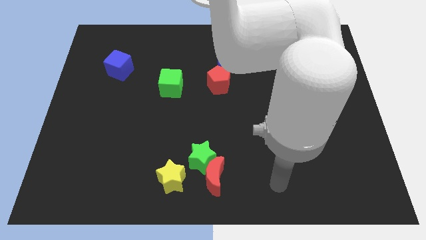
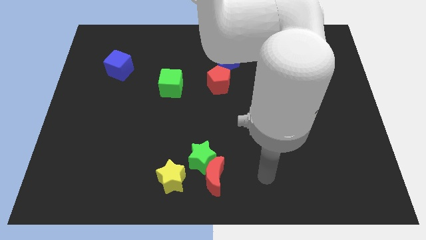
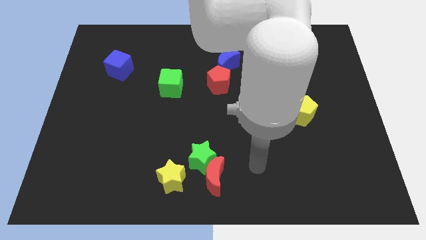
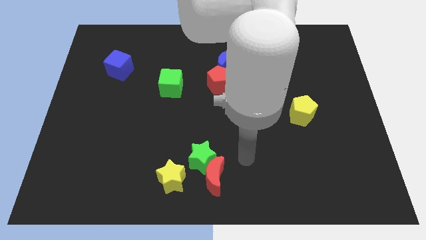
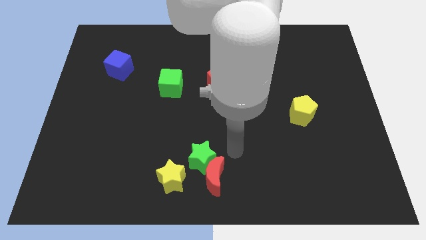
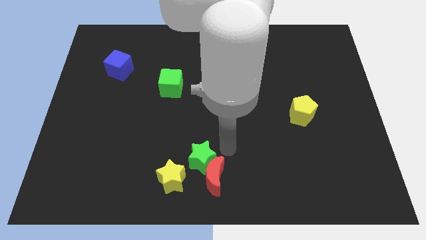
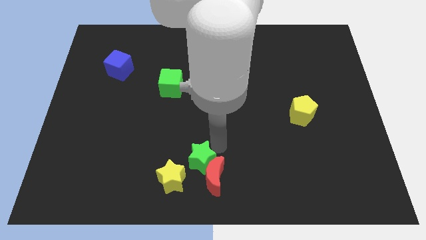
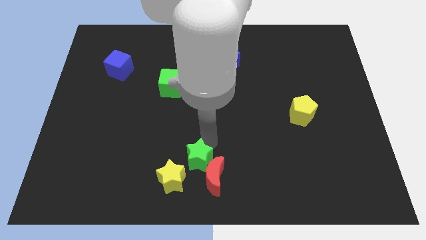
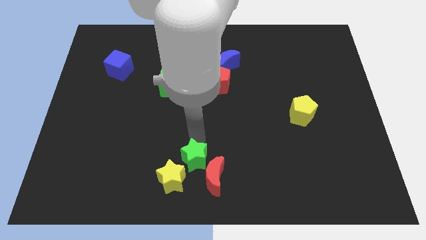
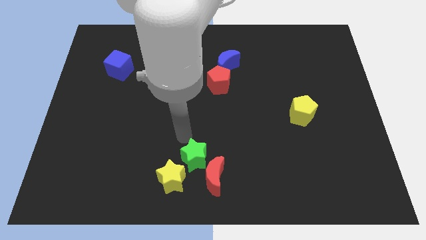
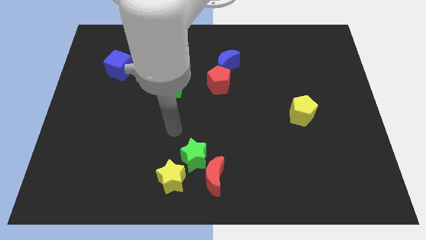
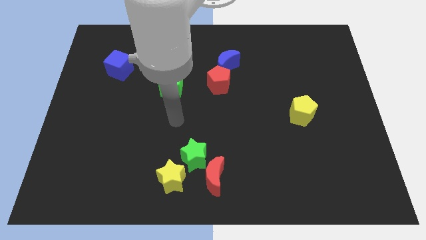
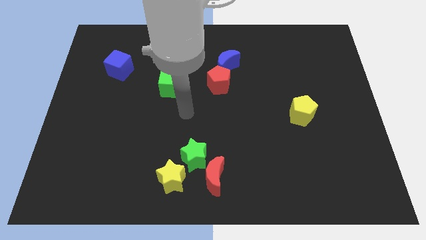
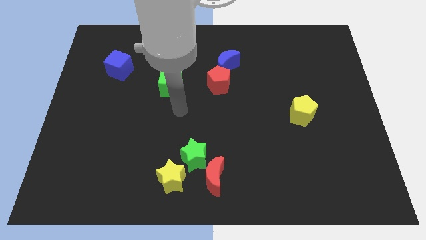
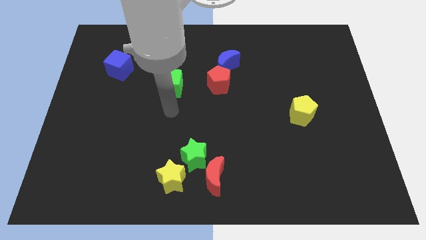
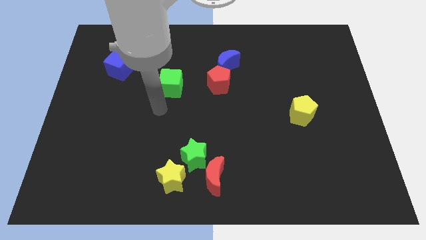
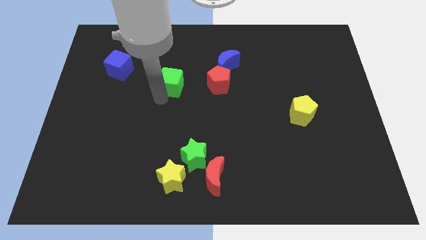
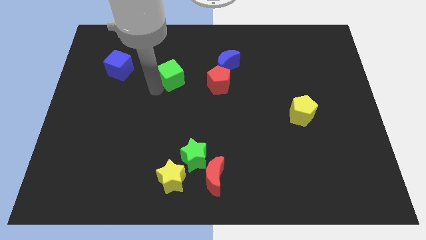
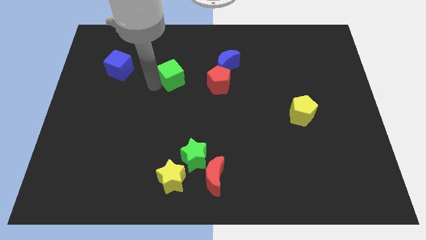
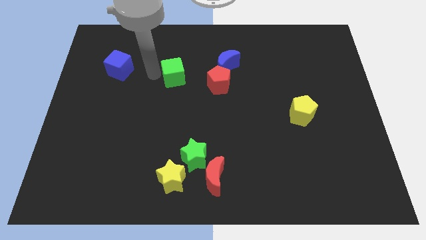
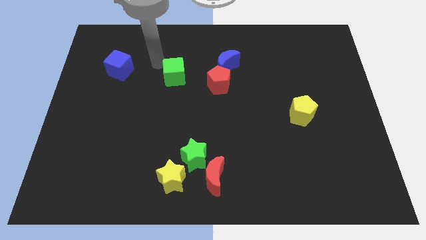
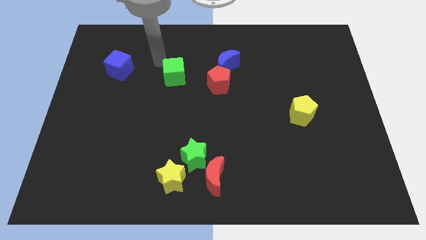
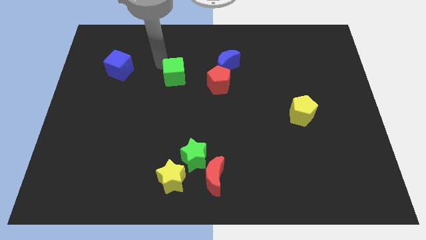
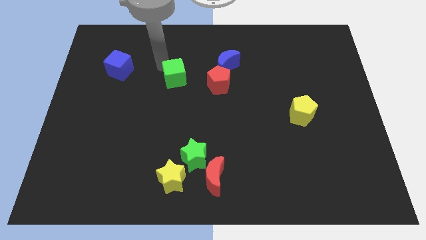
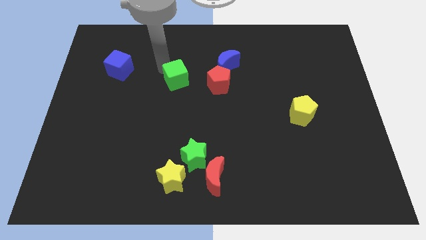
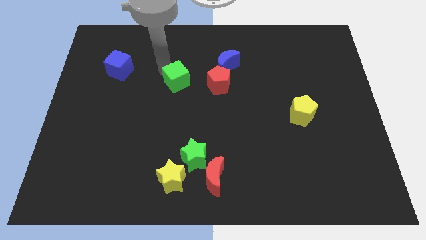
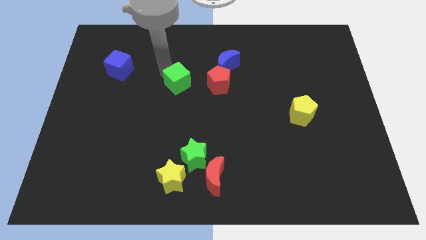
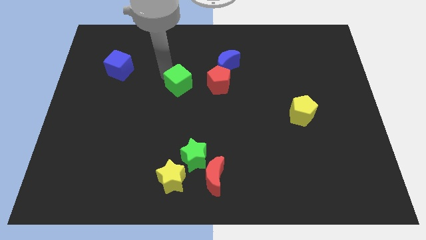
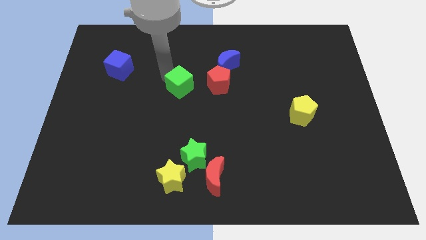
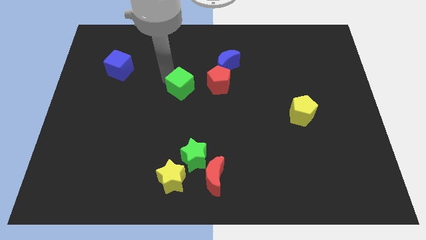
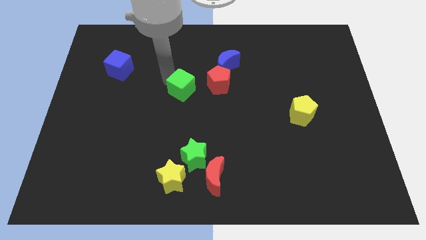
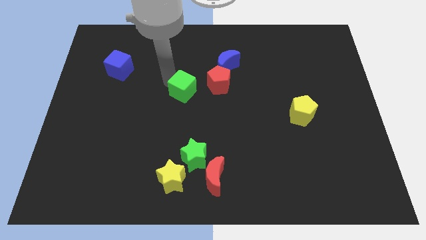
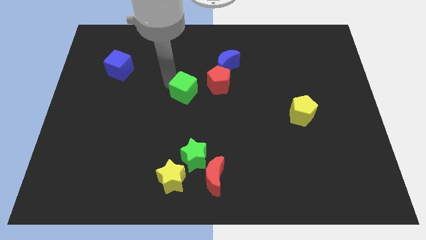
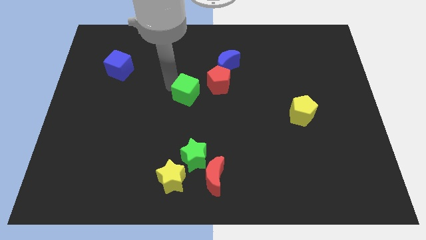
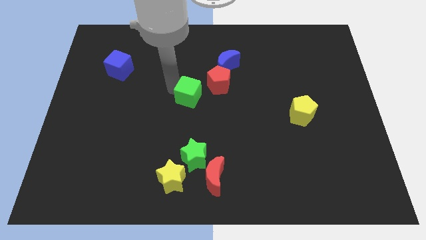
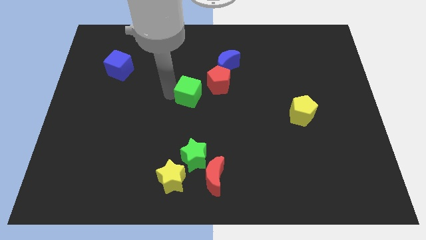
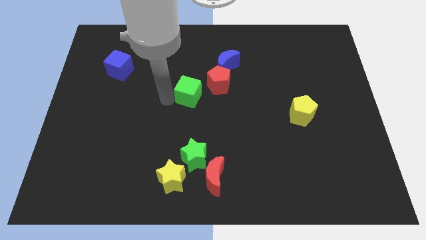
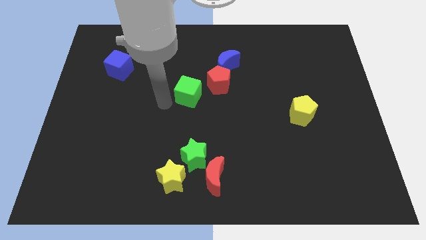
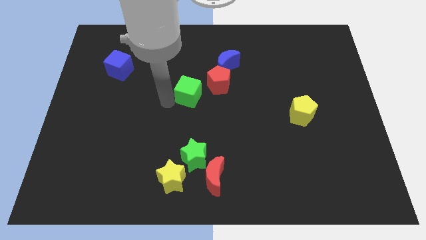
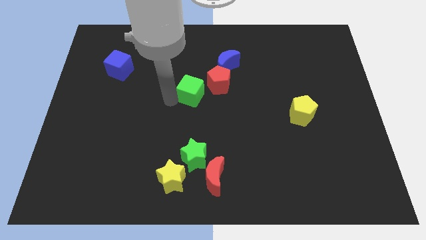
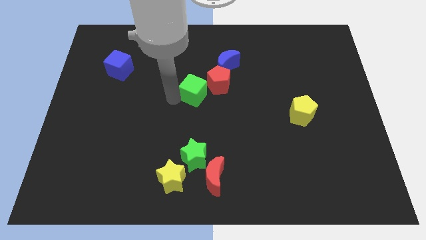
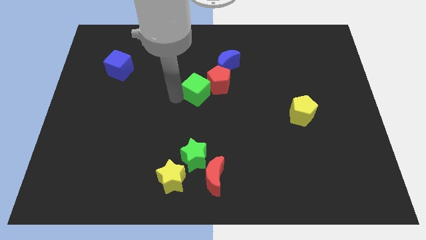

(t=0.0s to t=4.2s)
move the green cube to the red pentagon

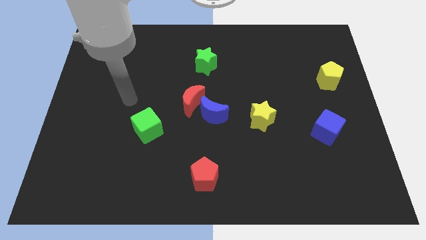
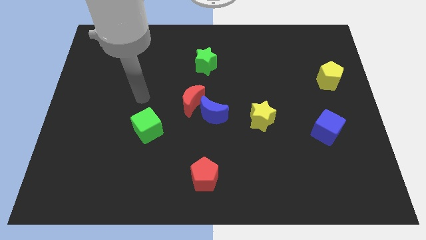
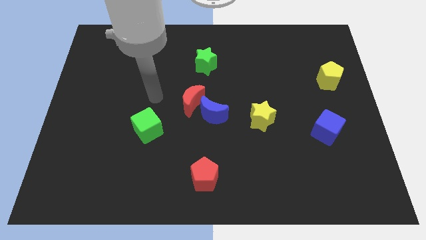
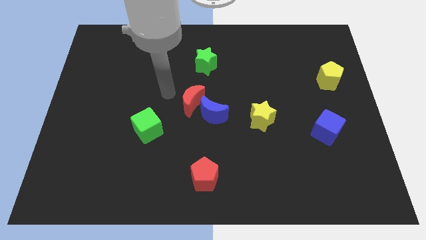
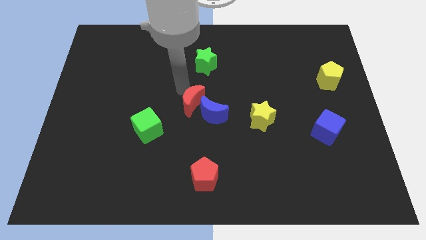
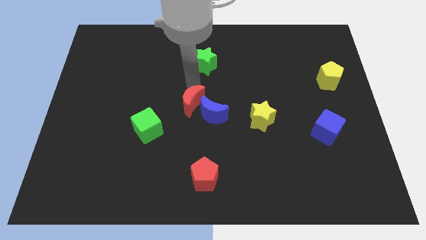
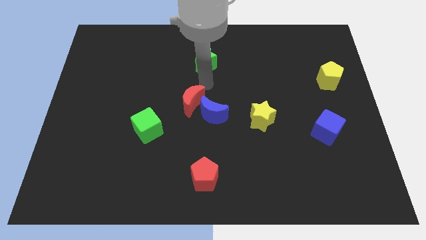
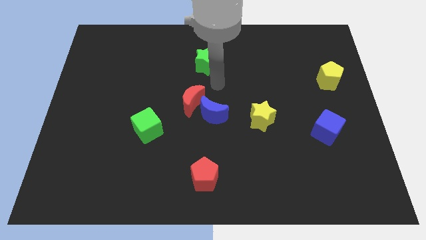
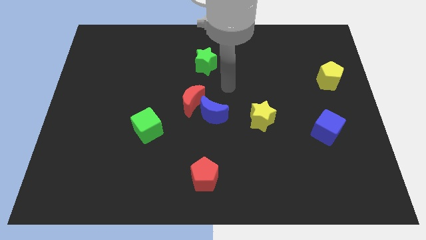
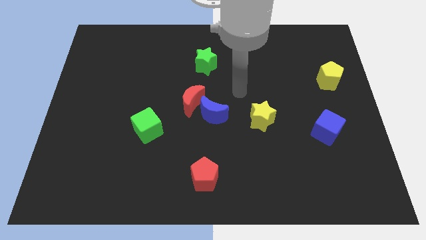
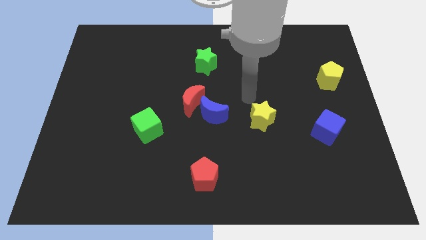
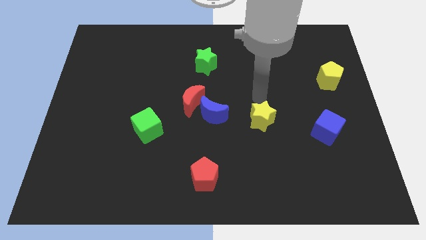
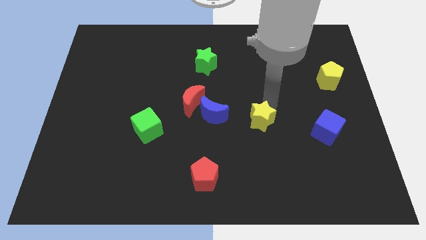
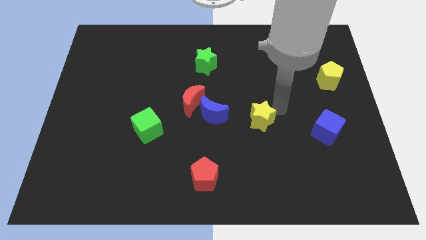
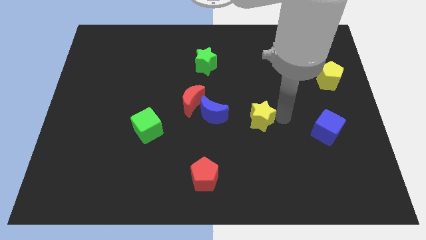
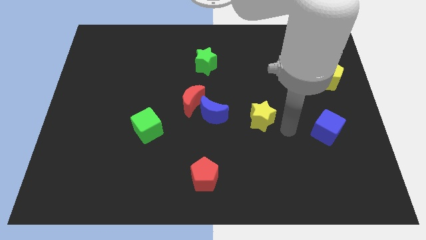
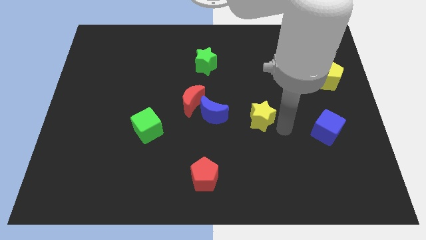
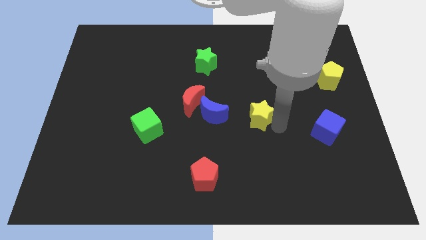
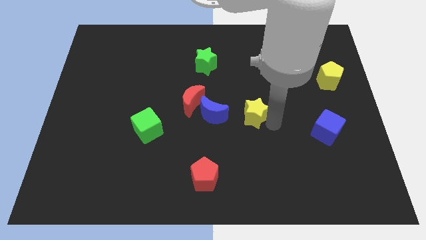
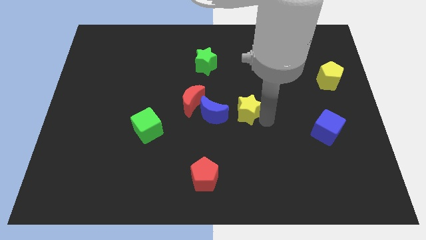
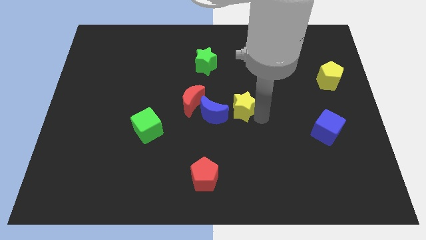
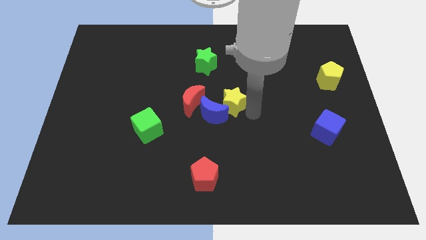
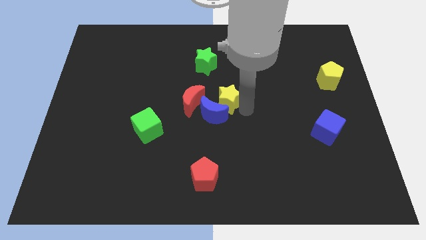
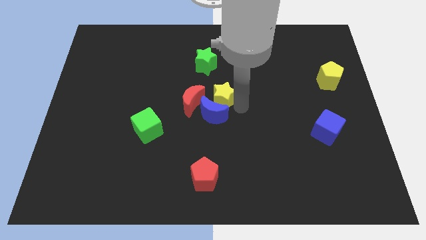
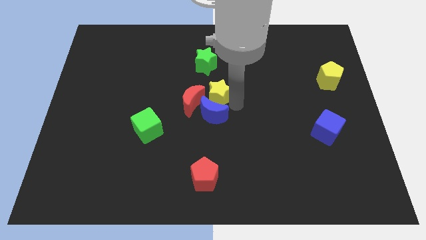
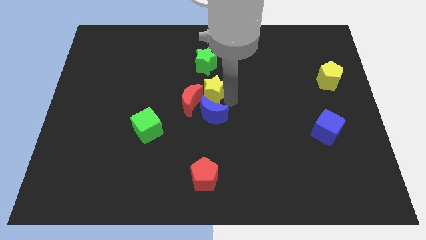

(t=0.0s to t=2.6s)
put the yellow star towards the red moon

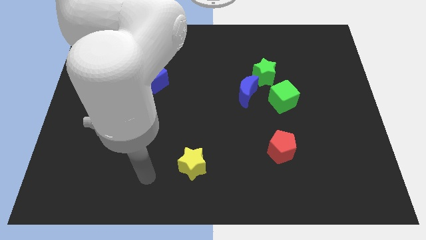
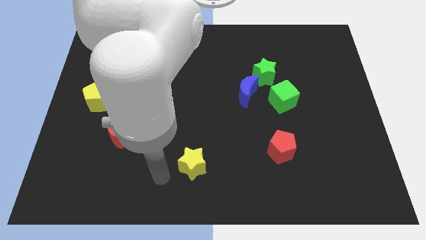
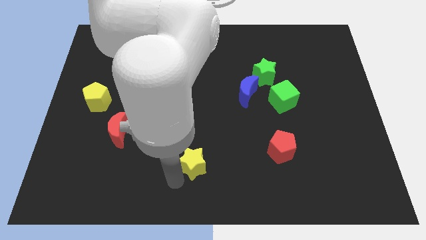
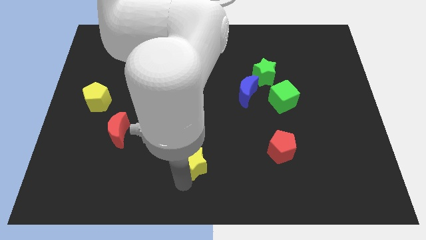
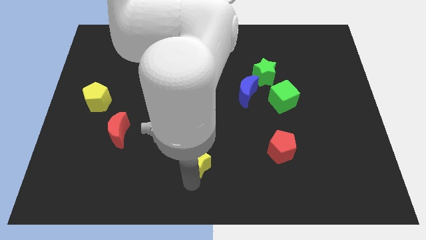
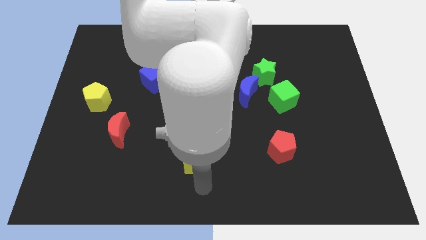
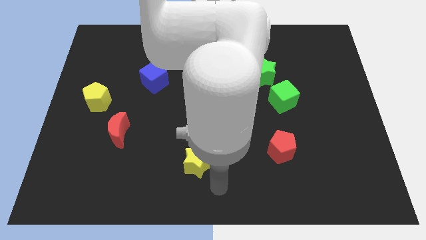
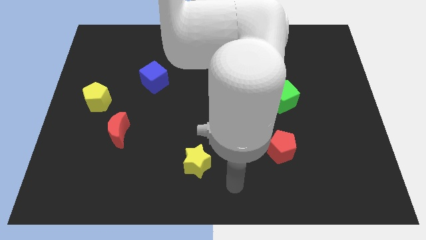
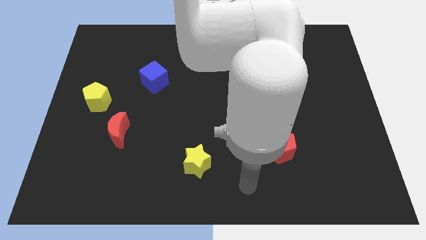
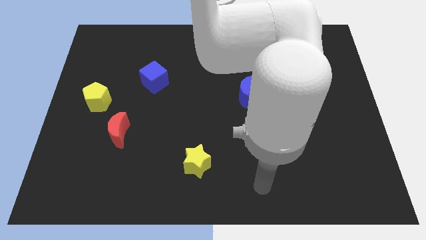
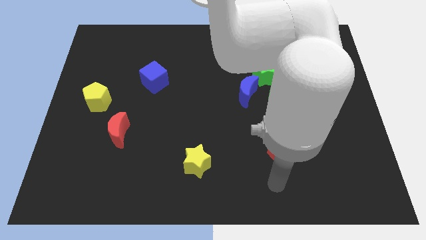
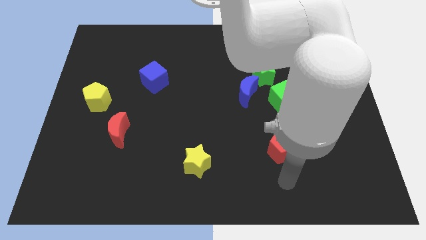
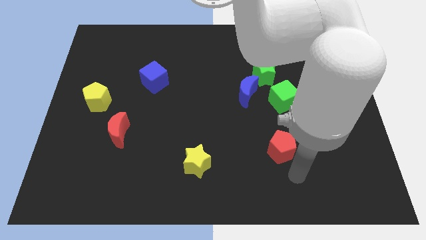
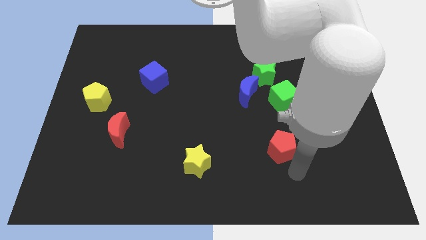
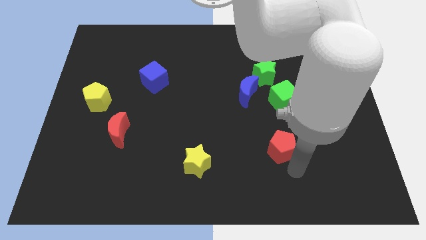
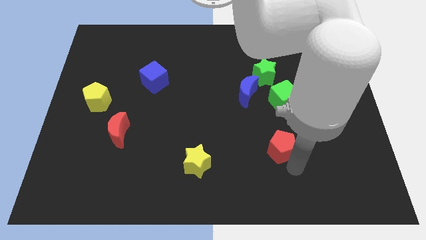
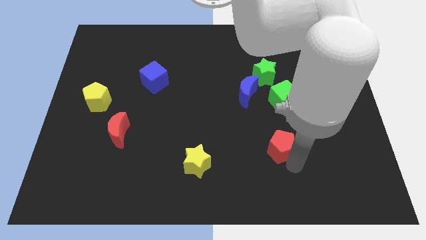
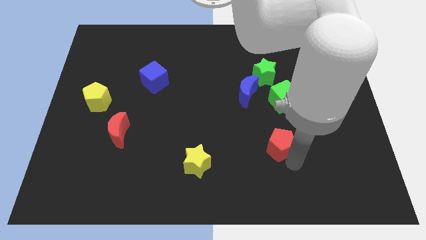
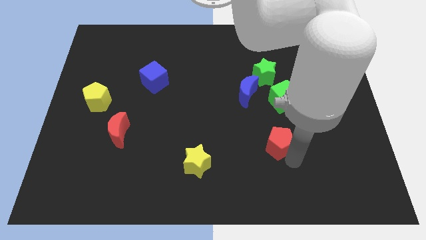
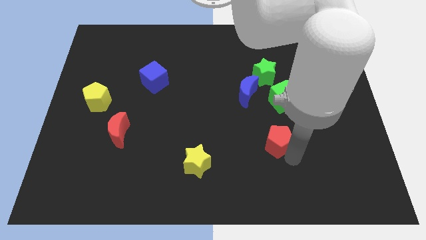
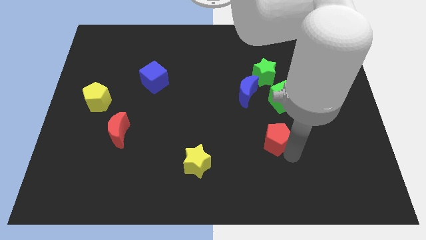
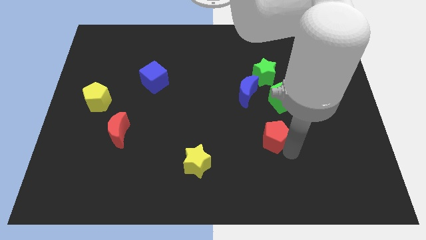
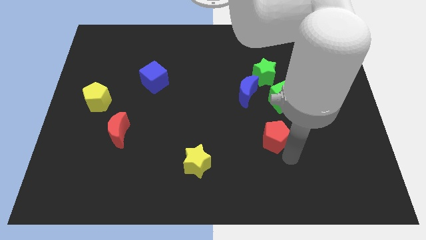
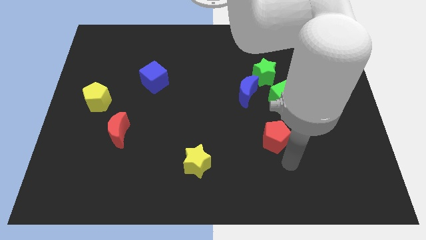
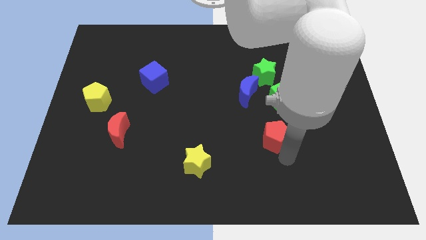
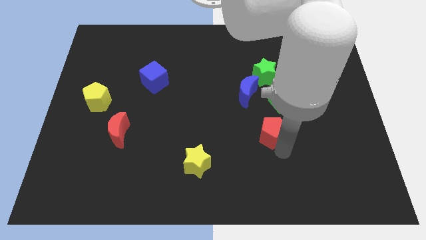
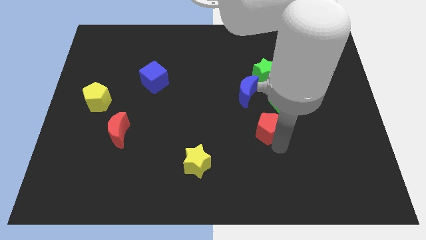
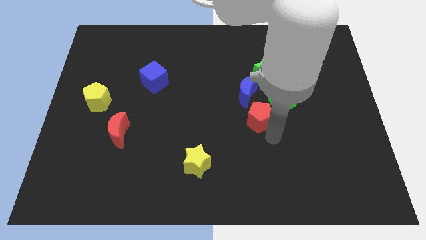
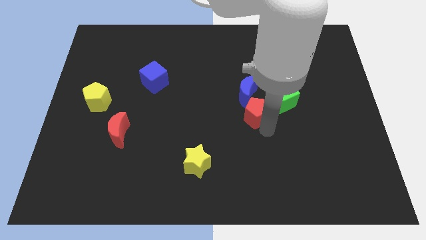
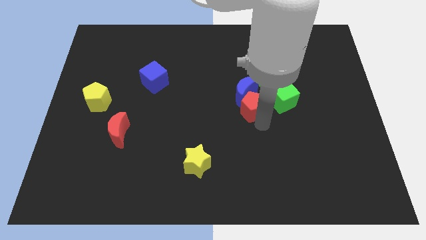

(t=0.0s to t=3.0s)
push the red pentagon close to the blue moon
